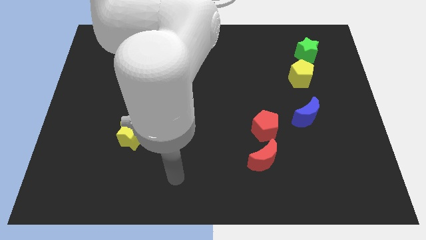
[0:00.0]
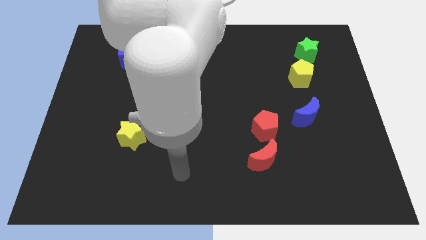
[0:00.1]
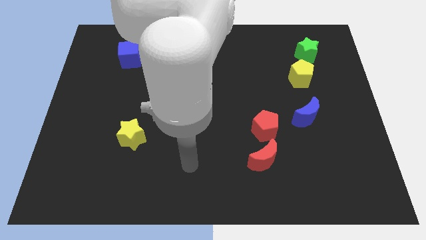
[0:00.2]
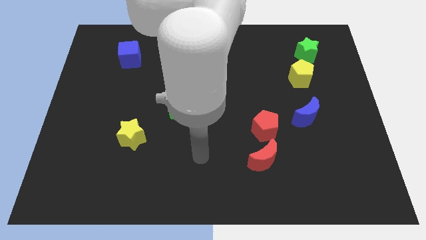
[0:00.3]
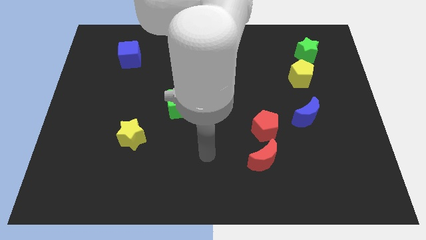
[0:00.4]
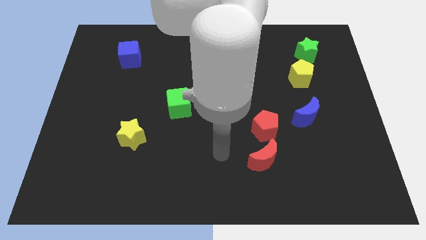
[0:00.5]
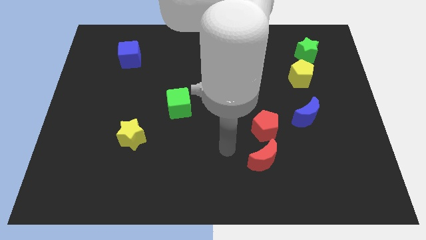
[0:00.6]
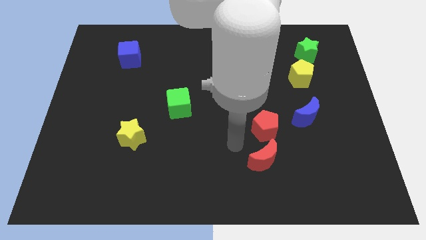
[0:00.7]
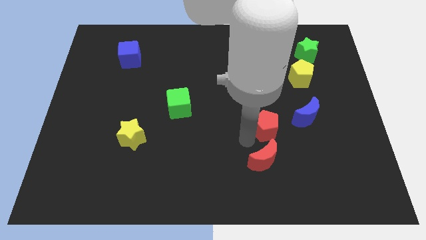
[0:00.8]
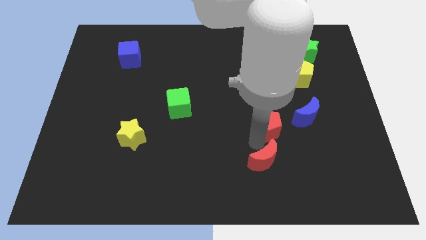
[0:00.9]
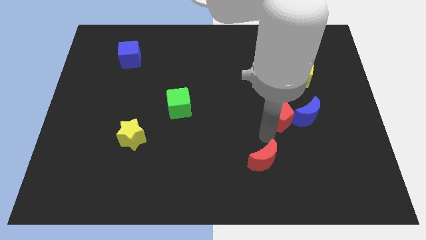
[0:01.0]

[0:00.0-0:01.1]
move the red moon away from the red pentagon

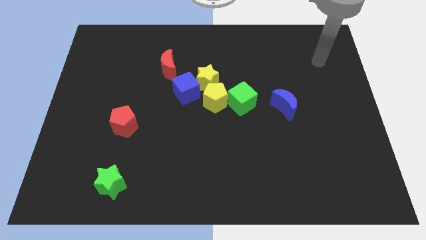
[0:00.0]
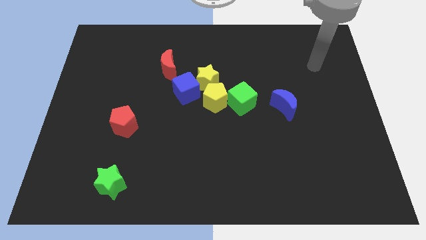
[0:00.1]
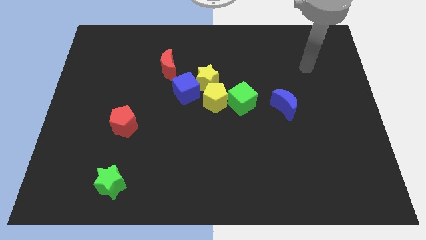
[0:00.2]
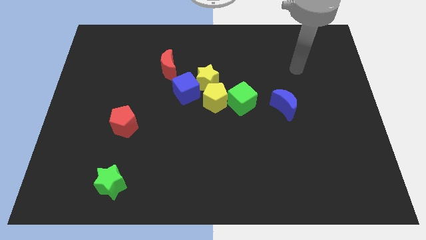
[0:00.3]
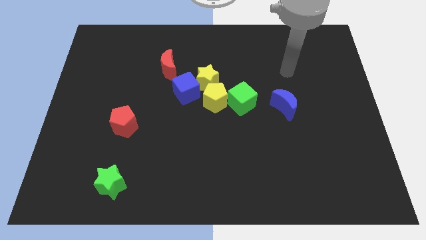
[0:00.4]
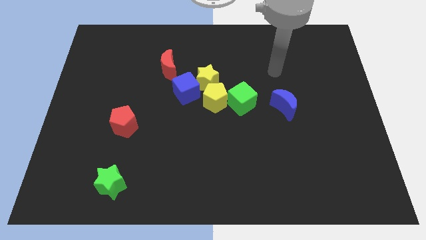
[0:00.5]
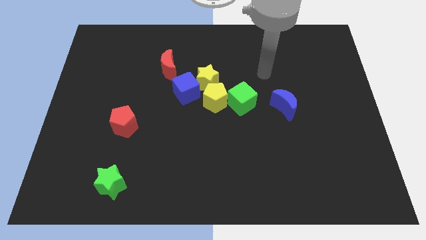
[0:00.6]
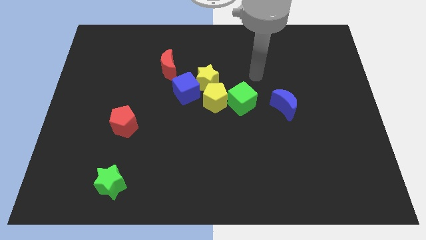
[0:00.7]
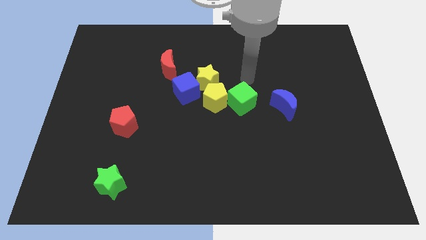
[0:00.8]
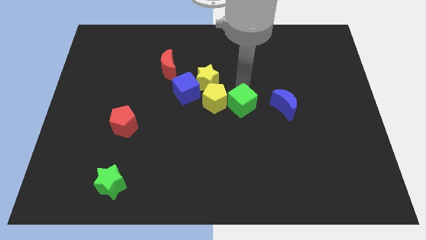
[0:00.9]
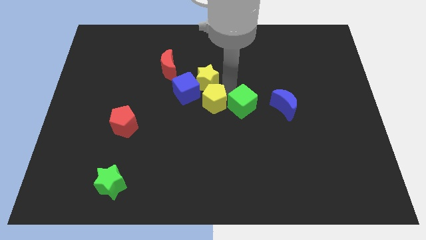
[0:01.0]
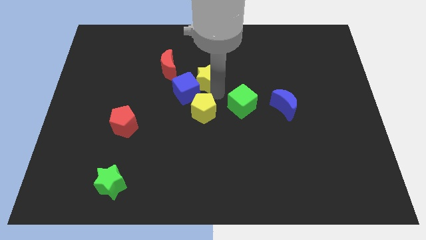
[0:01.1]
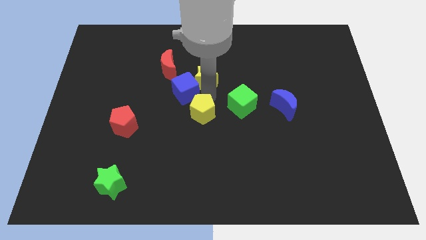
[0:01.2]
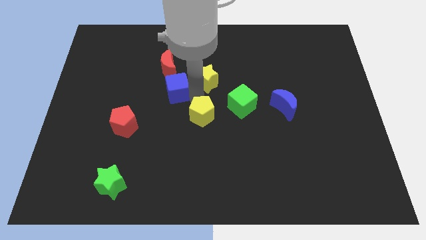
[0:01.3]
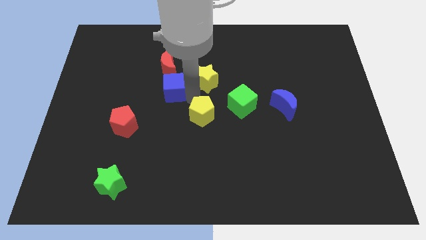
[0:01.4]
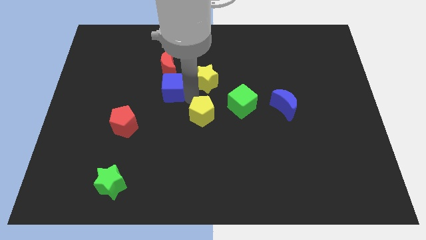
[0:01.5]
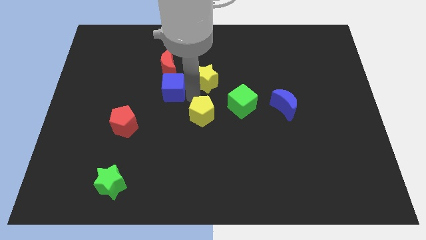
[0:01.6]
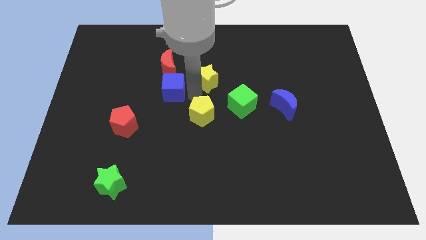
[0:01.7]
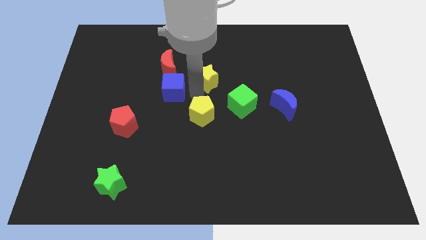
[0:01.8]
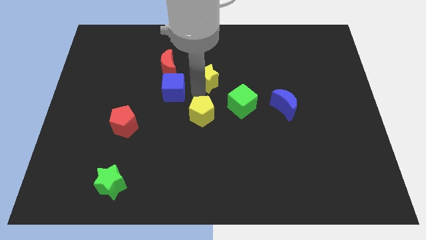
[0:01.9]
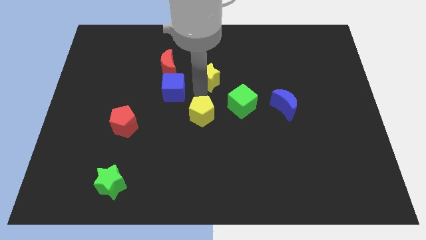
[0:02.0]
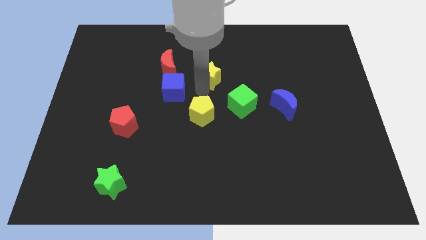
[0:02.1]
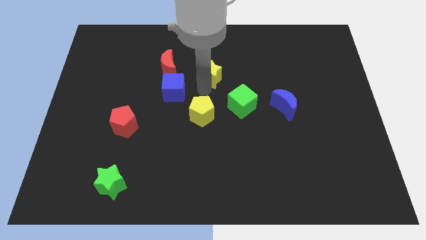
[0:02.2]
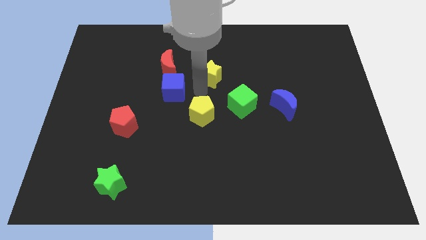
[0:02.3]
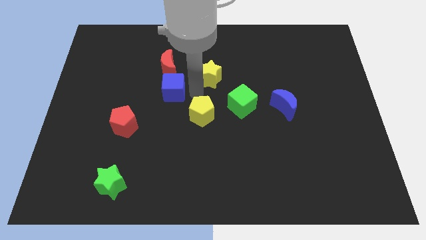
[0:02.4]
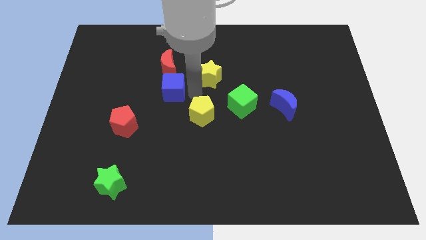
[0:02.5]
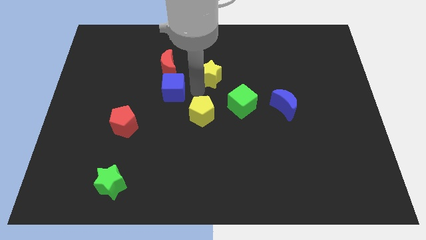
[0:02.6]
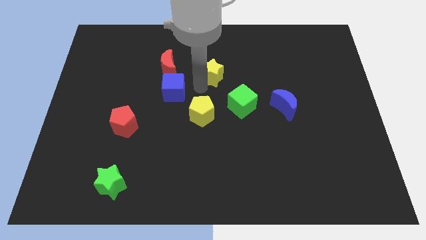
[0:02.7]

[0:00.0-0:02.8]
pull the yellow star apart from the blue cube and yellow pentagon

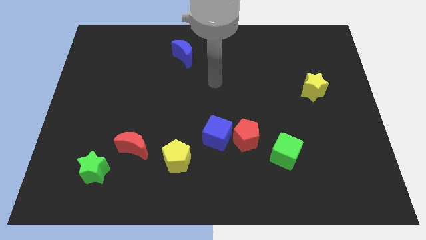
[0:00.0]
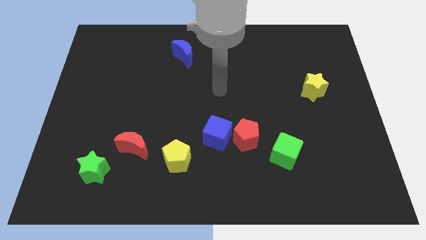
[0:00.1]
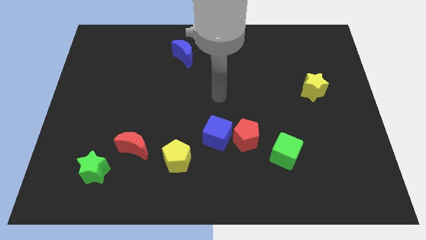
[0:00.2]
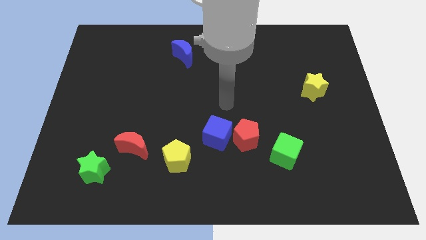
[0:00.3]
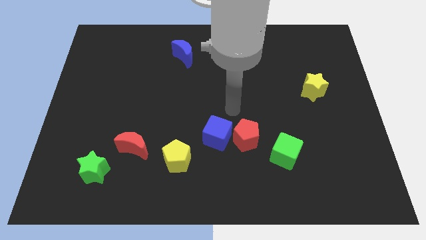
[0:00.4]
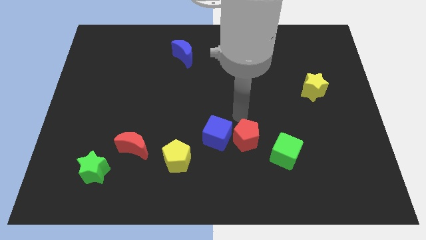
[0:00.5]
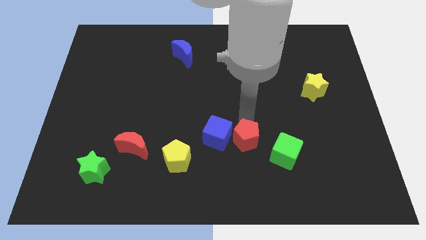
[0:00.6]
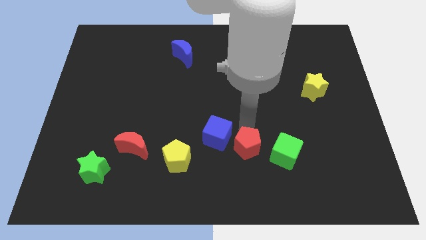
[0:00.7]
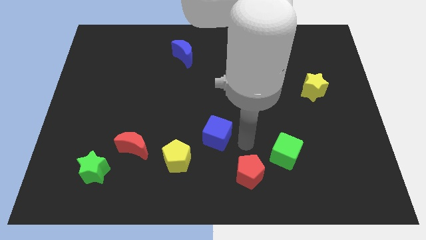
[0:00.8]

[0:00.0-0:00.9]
pull the blue cube apart from the red pentagon

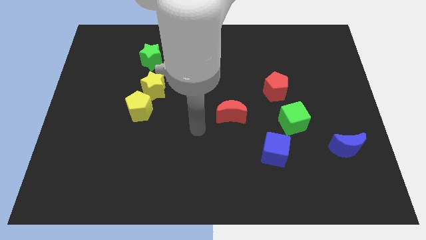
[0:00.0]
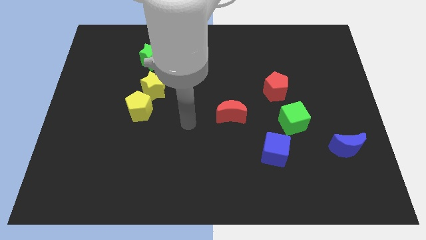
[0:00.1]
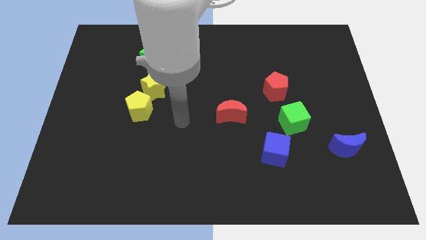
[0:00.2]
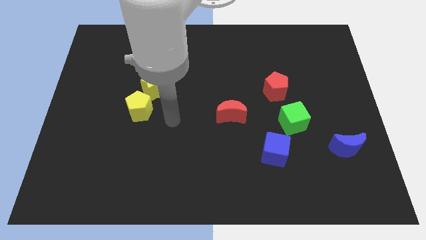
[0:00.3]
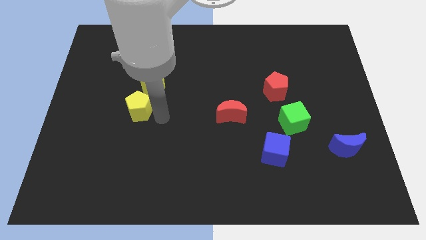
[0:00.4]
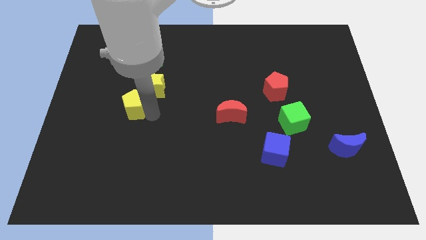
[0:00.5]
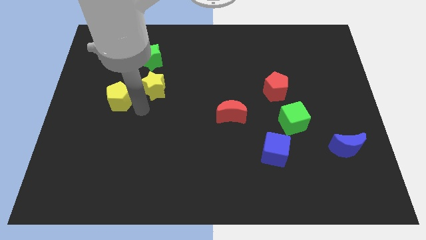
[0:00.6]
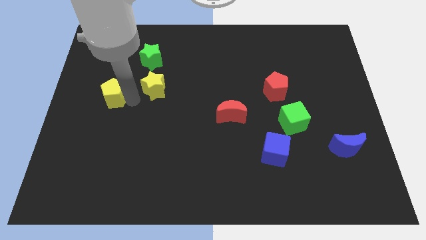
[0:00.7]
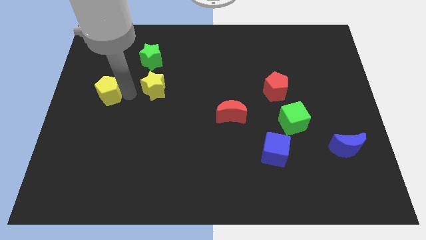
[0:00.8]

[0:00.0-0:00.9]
move the yellow star away from the yellow pentagon

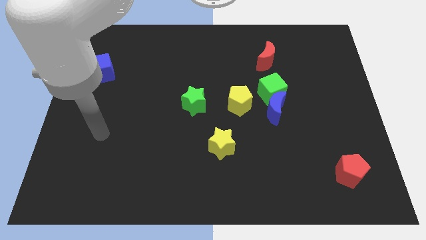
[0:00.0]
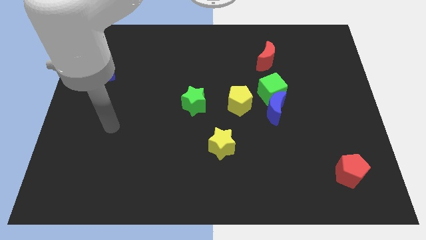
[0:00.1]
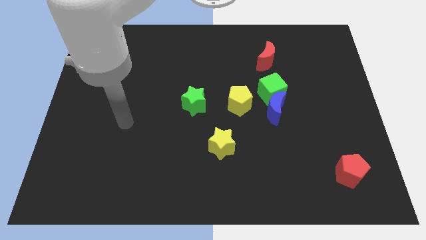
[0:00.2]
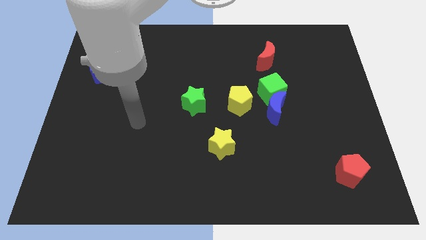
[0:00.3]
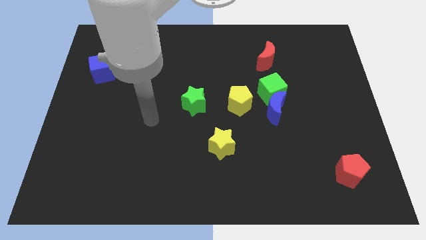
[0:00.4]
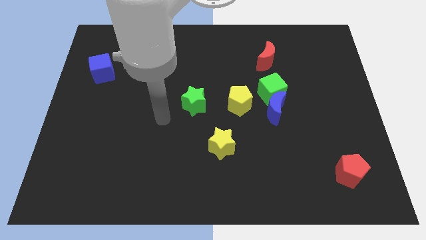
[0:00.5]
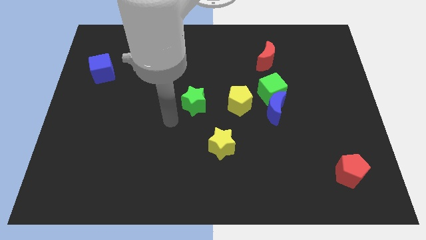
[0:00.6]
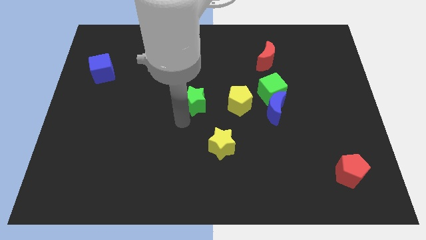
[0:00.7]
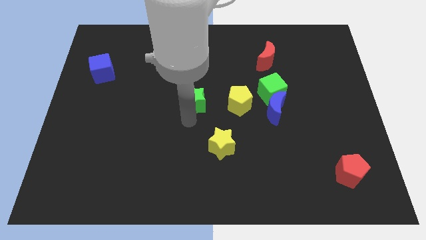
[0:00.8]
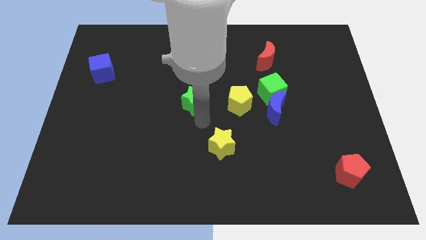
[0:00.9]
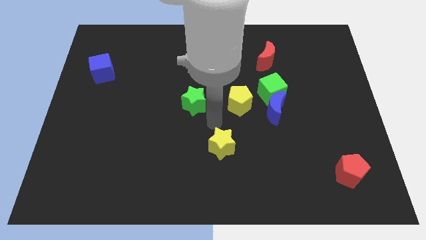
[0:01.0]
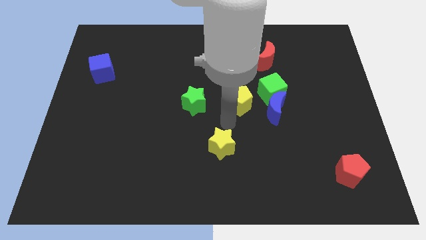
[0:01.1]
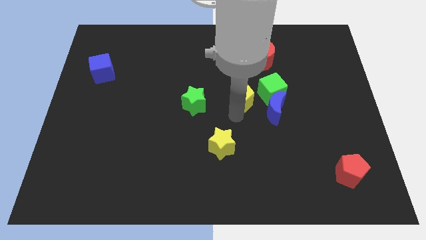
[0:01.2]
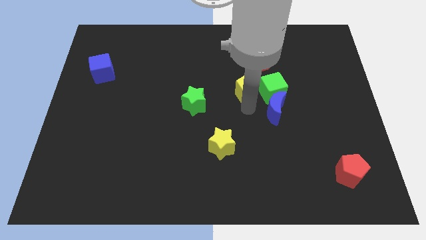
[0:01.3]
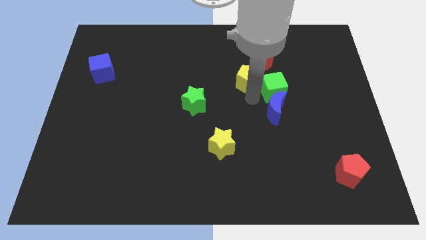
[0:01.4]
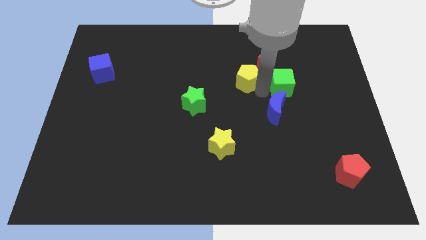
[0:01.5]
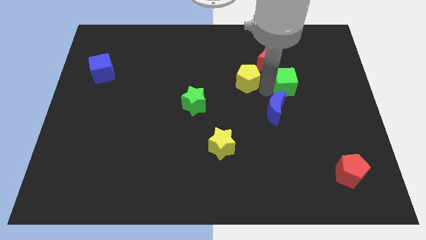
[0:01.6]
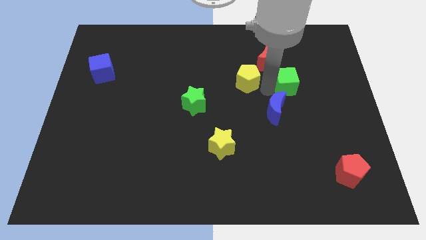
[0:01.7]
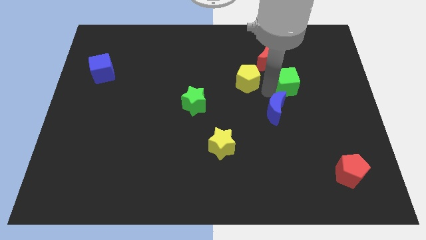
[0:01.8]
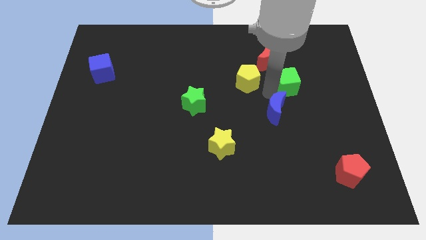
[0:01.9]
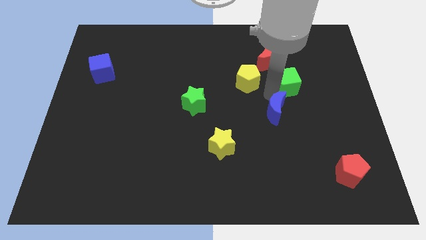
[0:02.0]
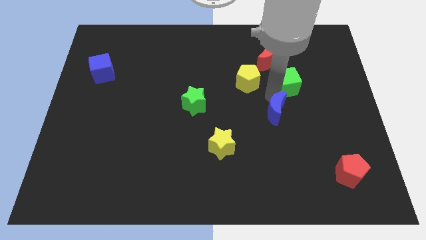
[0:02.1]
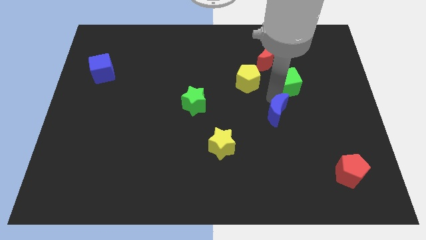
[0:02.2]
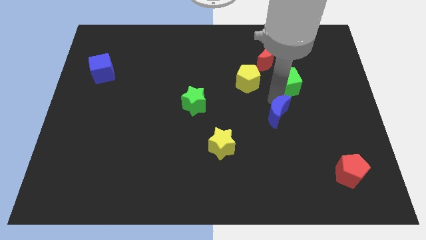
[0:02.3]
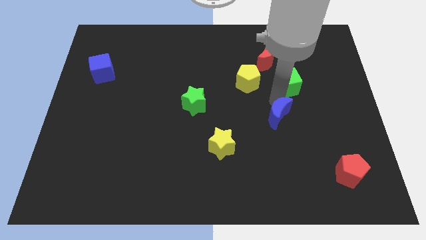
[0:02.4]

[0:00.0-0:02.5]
pull the blue moon apart from the green cube and yellow pentagon

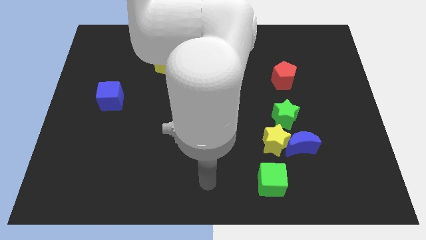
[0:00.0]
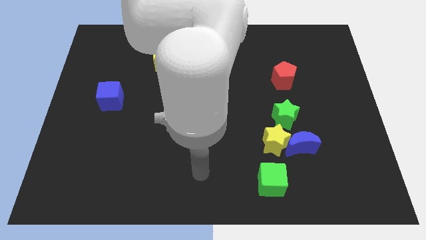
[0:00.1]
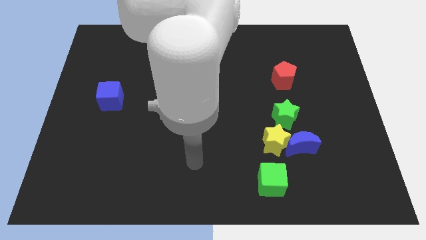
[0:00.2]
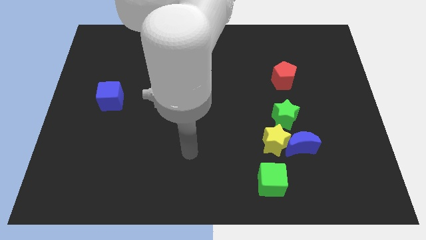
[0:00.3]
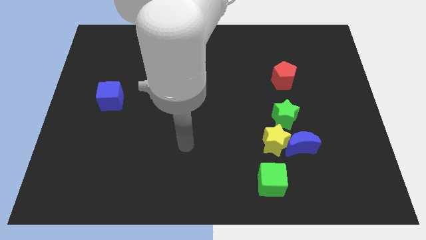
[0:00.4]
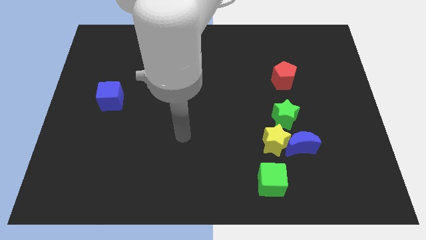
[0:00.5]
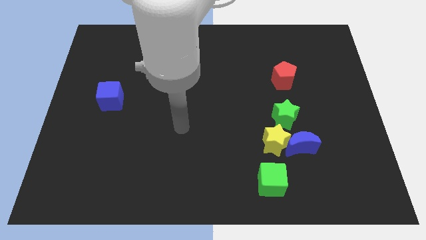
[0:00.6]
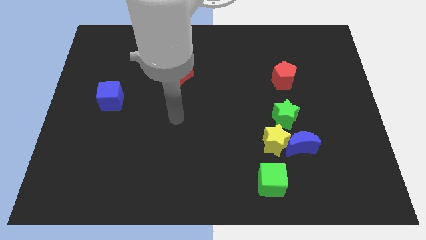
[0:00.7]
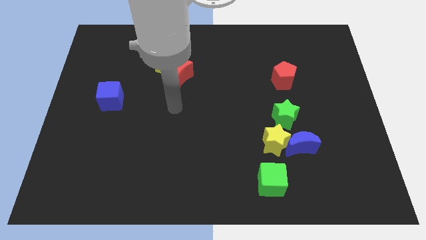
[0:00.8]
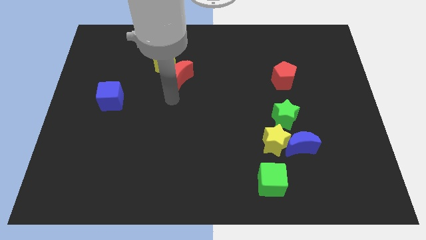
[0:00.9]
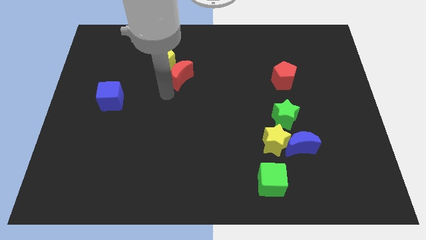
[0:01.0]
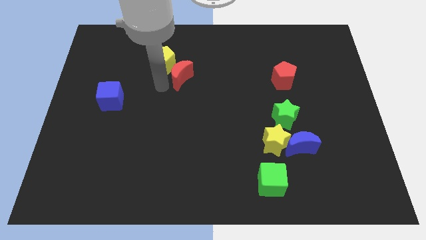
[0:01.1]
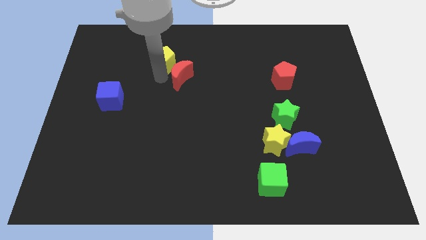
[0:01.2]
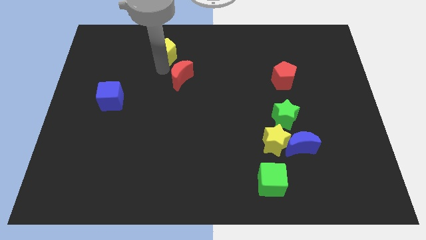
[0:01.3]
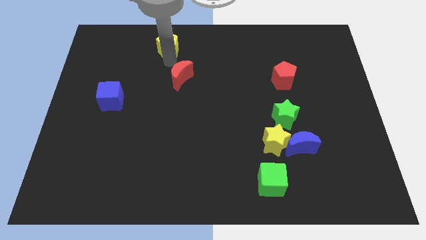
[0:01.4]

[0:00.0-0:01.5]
separate the red moon from the yellow pentagon
